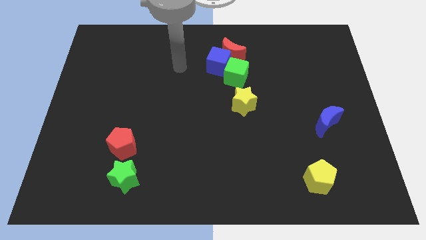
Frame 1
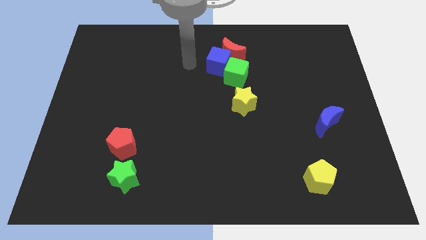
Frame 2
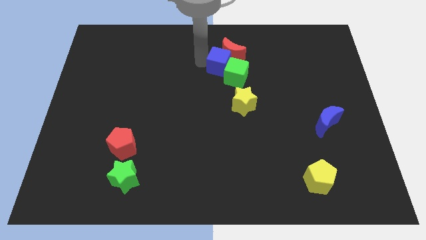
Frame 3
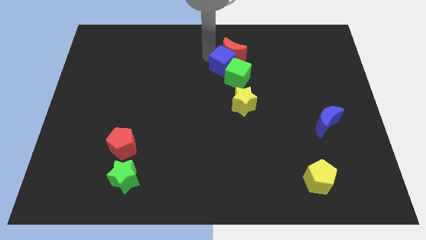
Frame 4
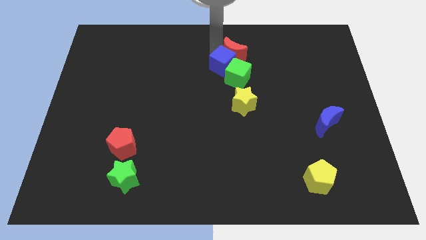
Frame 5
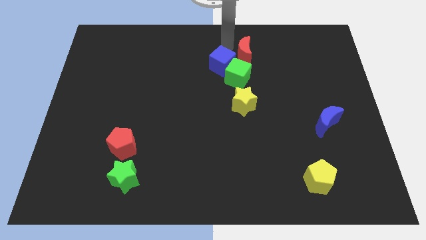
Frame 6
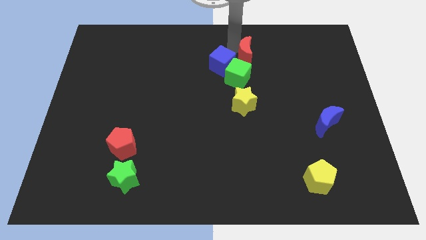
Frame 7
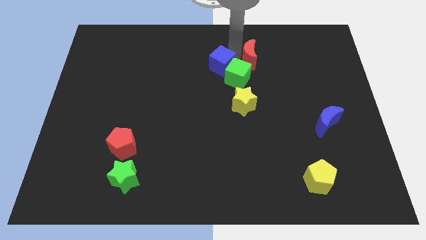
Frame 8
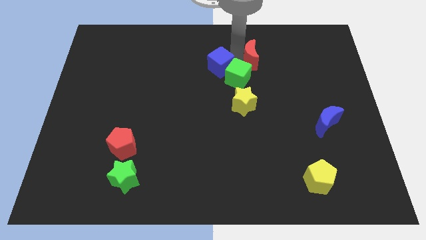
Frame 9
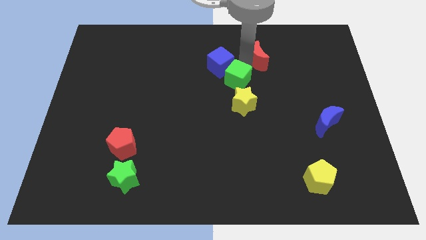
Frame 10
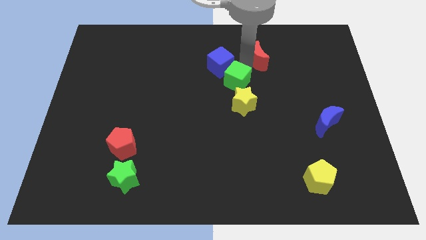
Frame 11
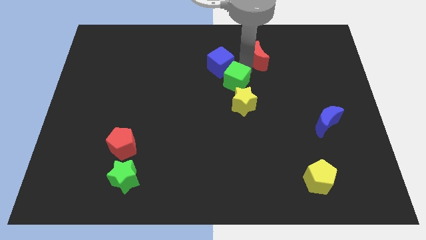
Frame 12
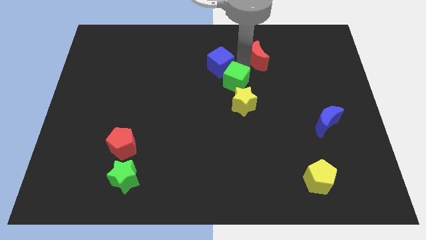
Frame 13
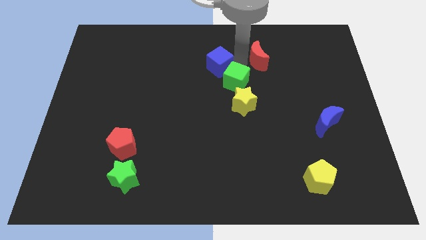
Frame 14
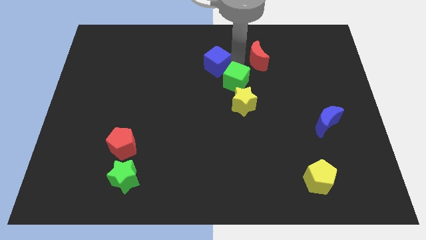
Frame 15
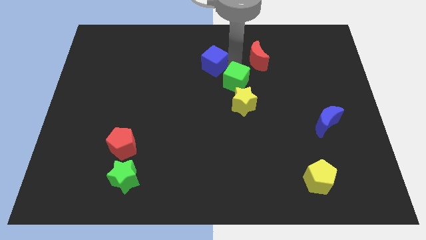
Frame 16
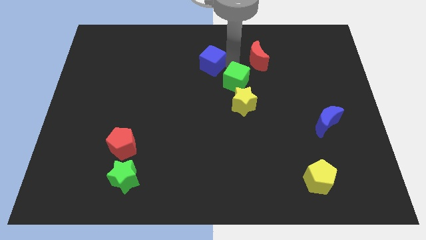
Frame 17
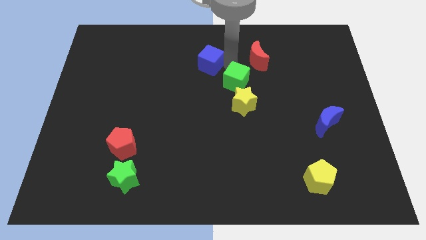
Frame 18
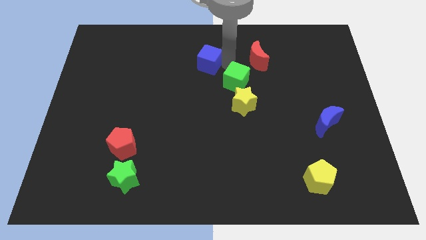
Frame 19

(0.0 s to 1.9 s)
separate the blue cube from the red moon and green cube

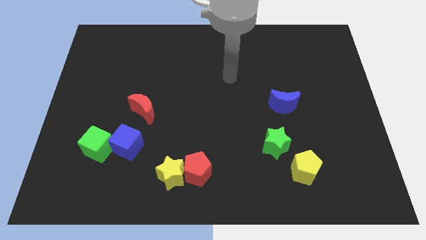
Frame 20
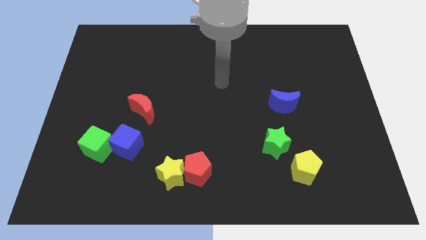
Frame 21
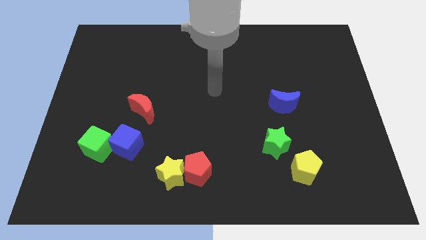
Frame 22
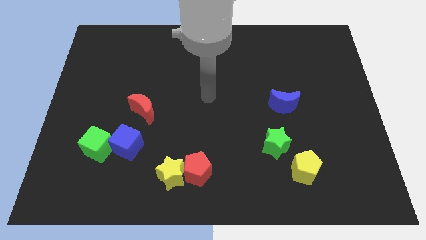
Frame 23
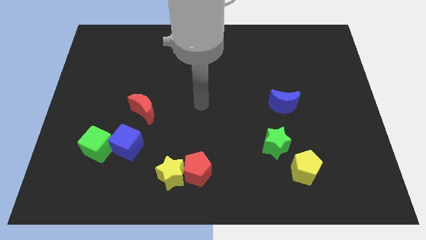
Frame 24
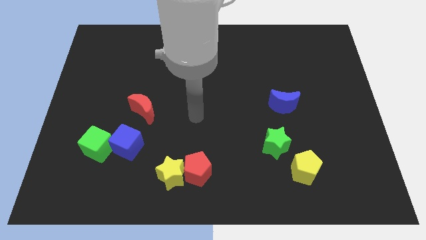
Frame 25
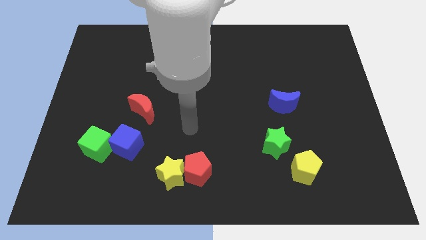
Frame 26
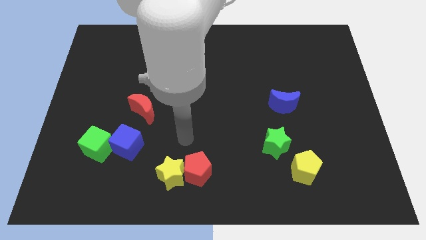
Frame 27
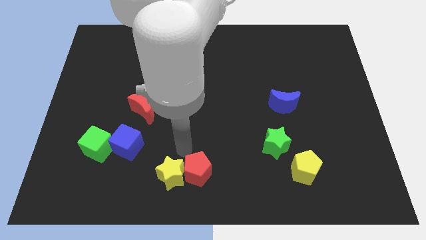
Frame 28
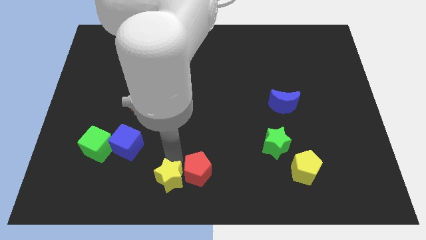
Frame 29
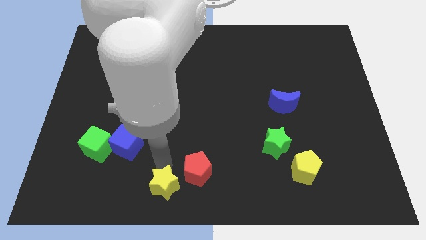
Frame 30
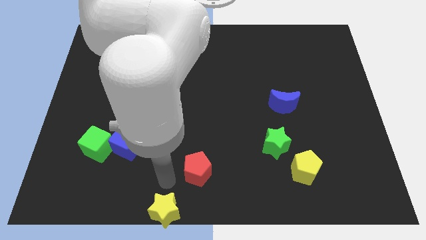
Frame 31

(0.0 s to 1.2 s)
move the red pentagon away from the yellow star

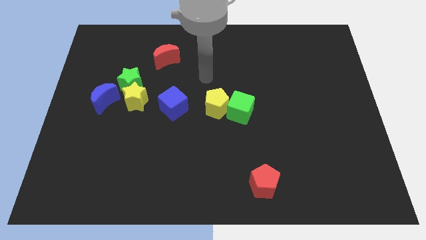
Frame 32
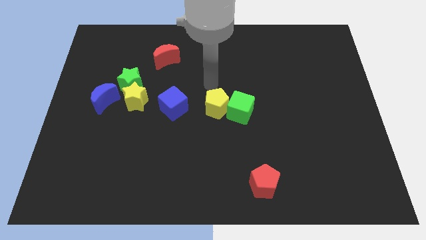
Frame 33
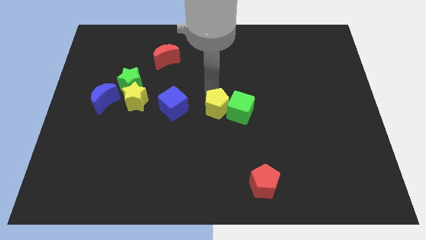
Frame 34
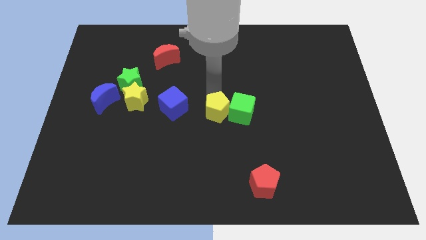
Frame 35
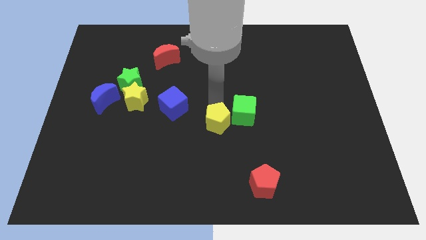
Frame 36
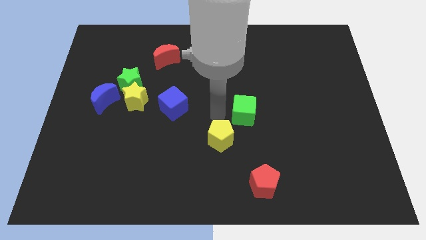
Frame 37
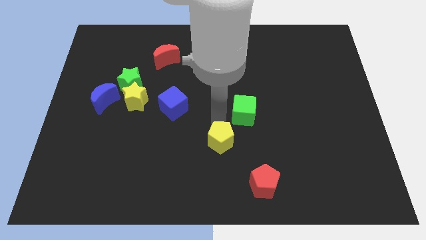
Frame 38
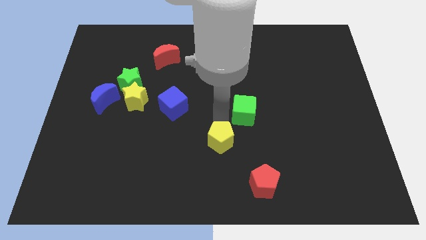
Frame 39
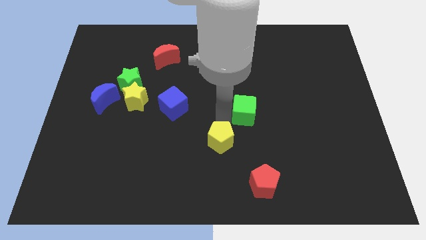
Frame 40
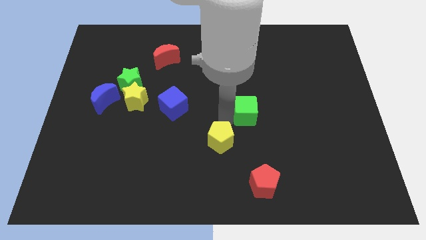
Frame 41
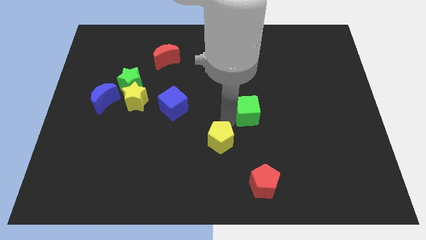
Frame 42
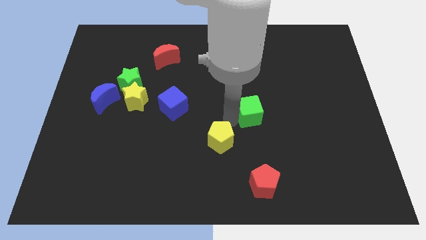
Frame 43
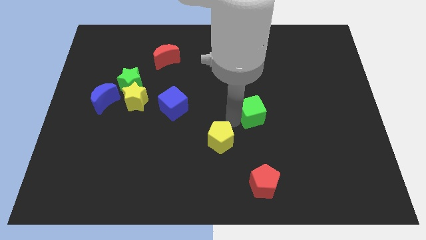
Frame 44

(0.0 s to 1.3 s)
pull the green cube apart from the yellow pentagon

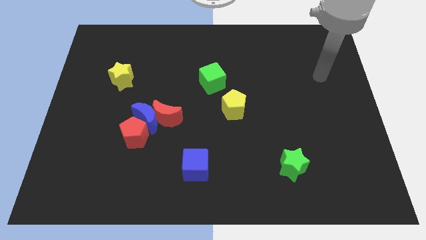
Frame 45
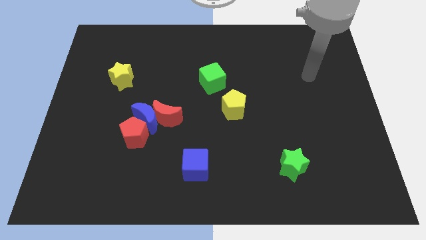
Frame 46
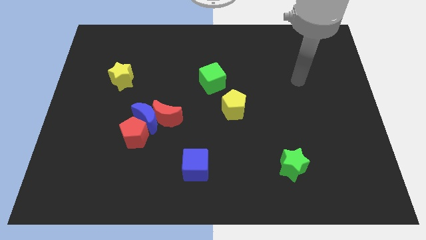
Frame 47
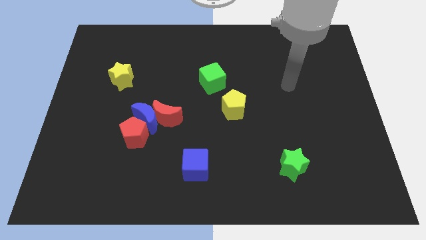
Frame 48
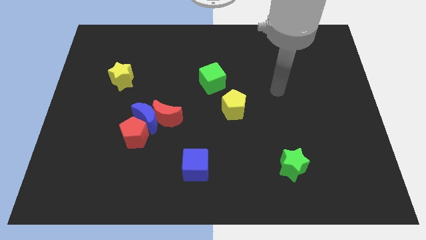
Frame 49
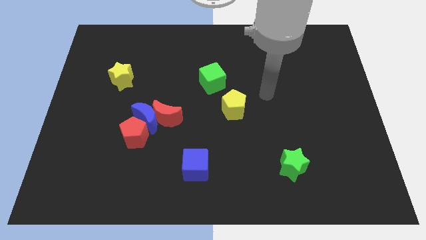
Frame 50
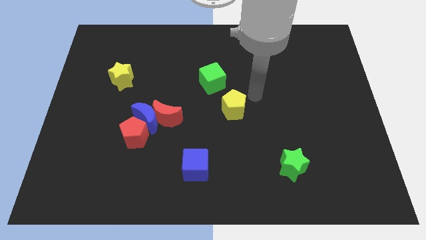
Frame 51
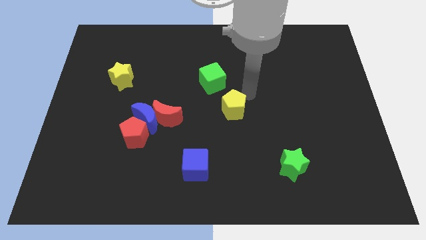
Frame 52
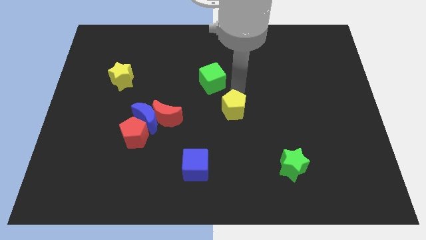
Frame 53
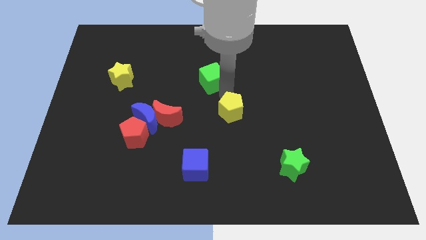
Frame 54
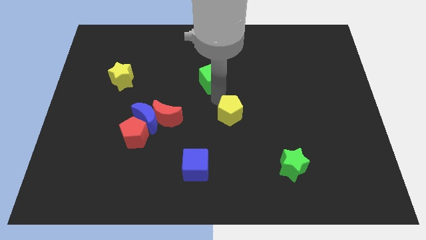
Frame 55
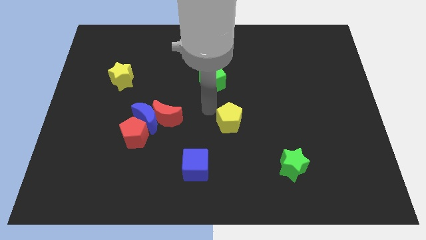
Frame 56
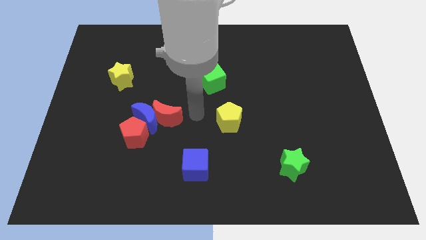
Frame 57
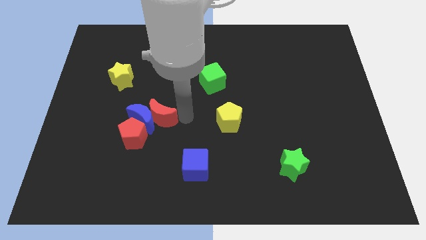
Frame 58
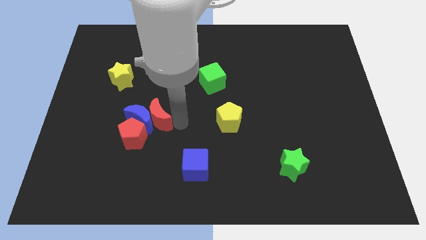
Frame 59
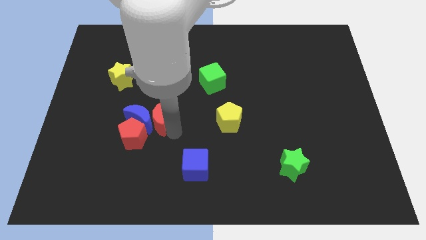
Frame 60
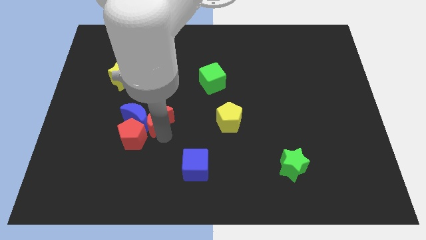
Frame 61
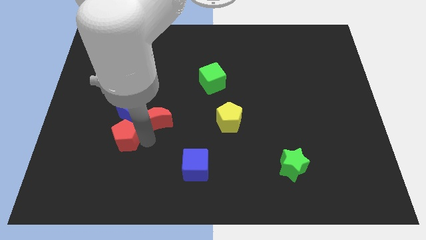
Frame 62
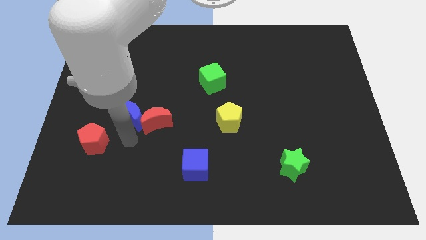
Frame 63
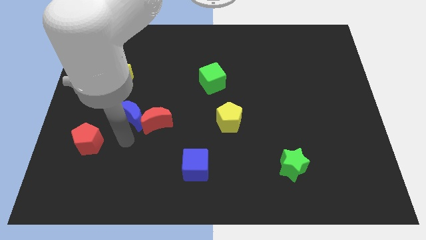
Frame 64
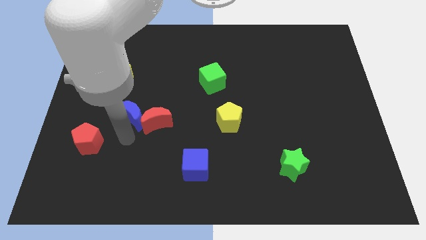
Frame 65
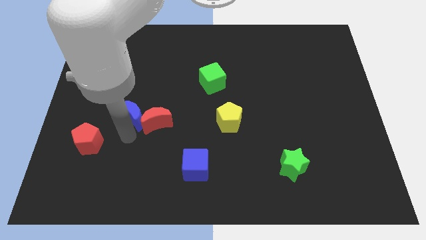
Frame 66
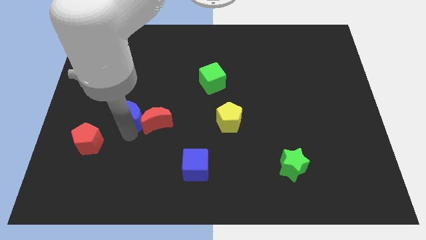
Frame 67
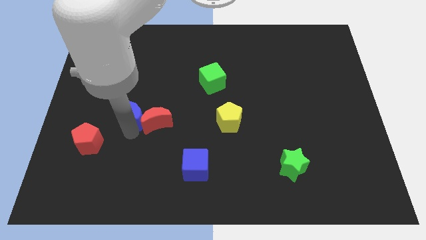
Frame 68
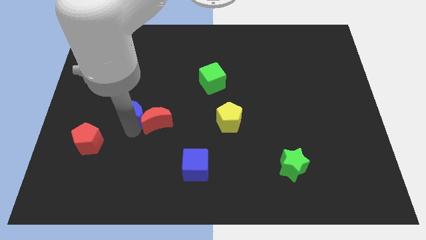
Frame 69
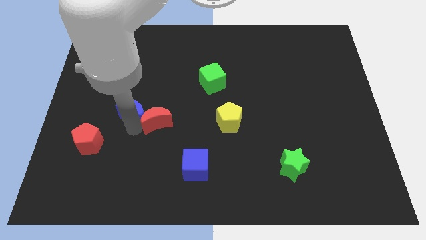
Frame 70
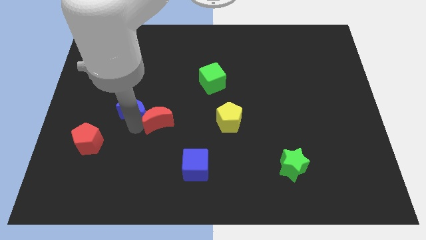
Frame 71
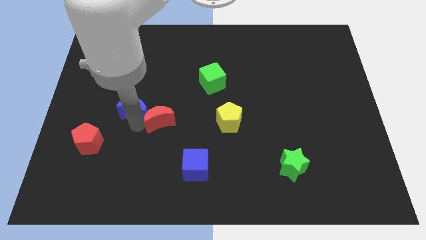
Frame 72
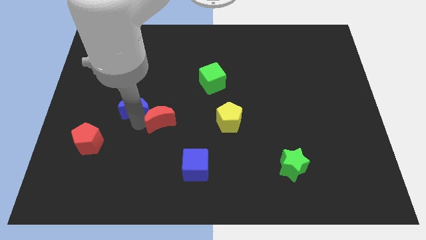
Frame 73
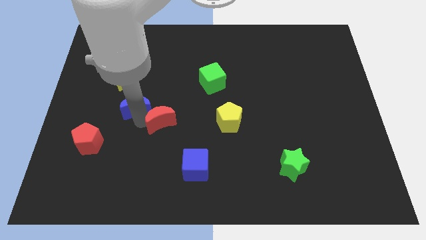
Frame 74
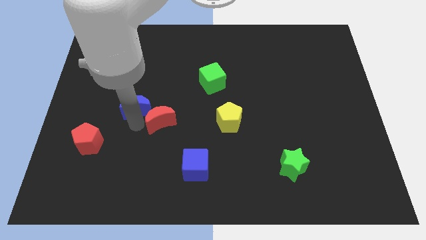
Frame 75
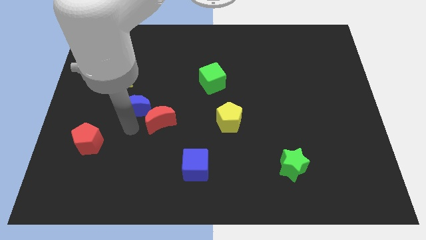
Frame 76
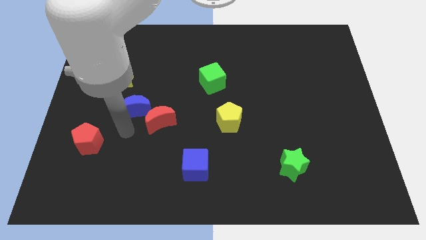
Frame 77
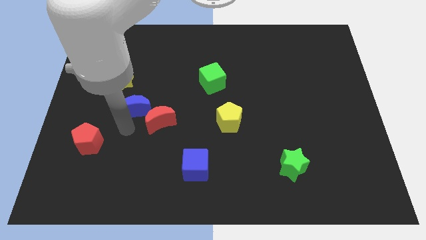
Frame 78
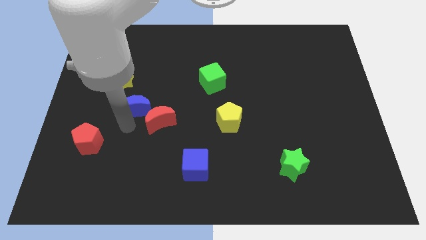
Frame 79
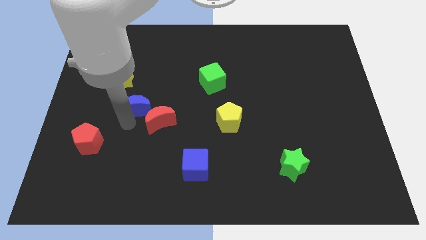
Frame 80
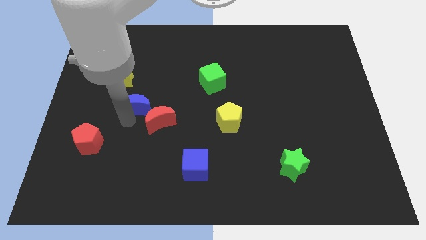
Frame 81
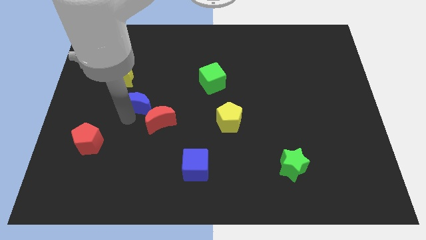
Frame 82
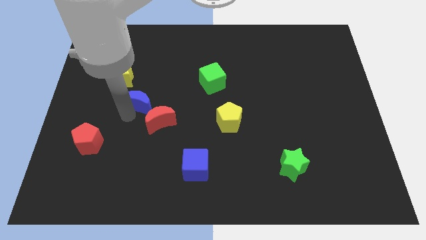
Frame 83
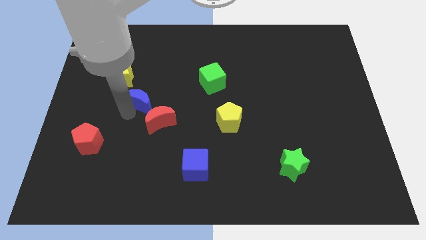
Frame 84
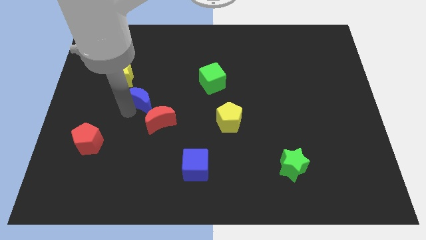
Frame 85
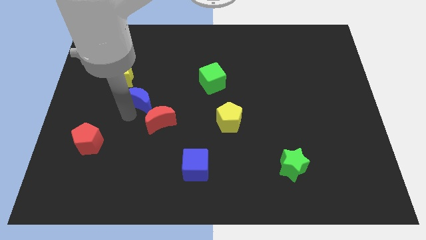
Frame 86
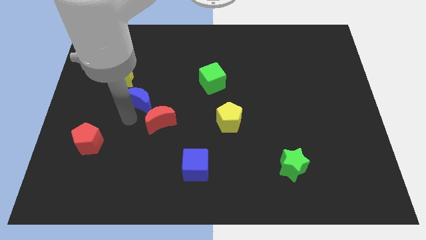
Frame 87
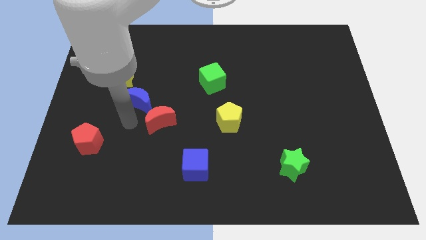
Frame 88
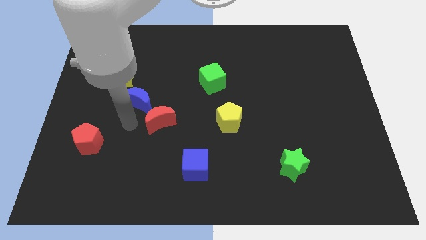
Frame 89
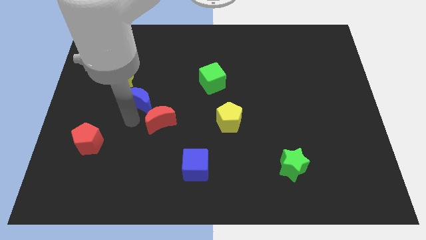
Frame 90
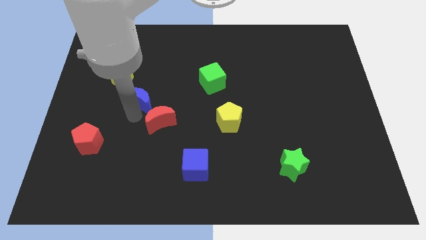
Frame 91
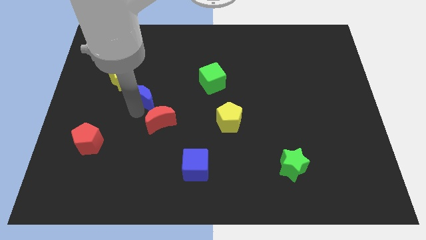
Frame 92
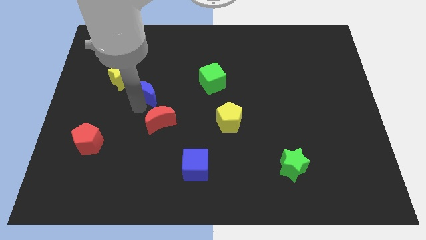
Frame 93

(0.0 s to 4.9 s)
pull the blue moon apart from the red moon and red pentagon
